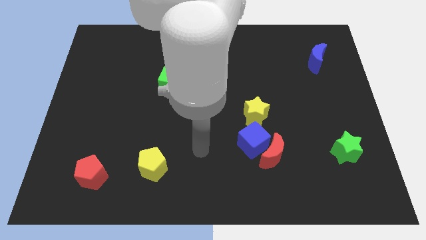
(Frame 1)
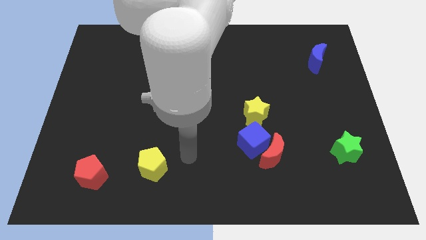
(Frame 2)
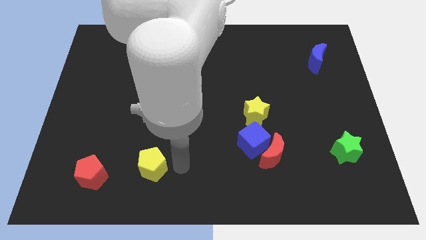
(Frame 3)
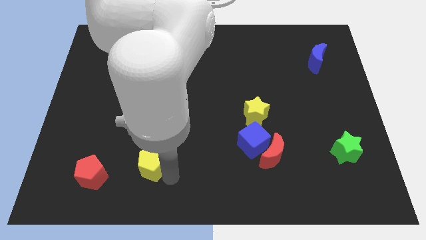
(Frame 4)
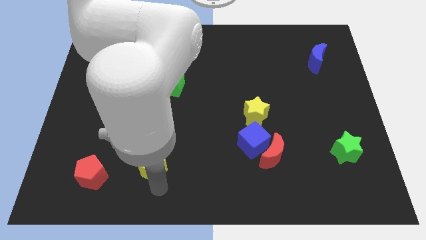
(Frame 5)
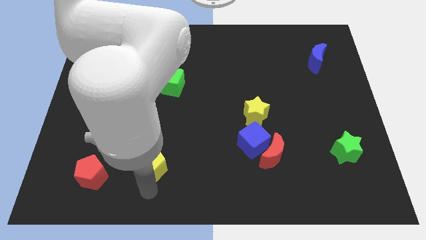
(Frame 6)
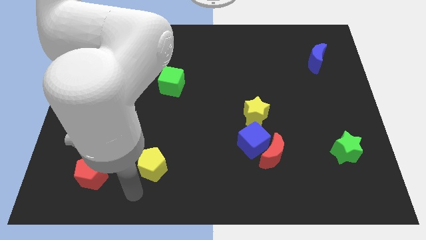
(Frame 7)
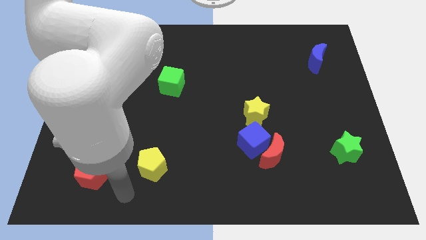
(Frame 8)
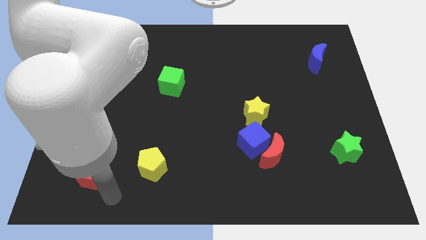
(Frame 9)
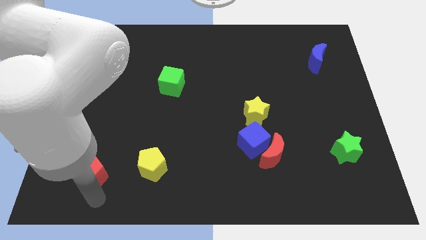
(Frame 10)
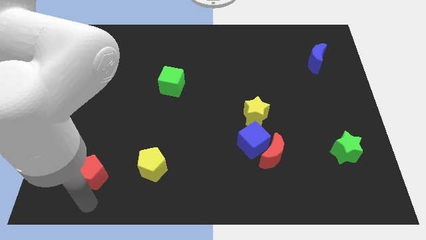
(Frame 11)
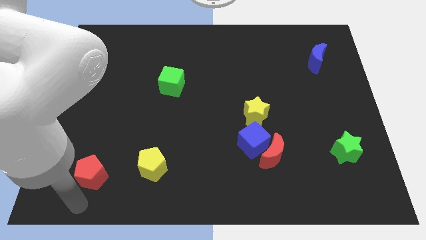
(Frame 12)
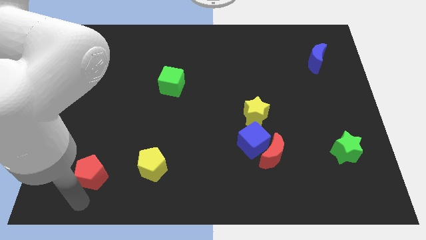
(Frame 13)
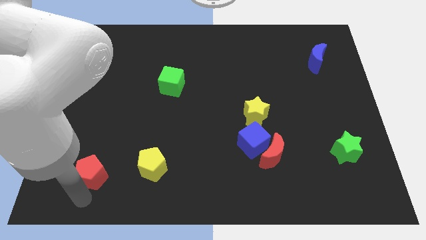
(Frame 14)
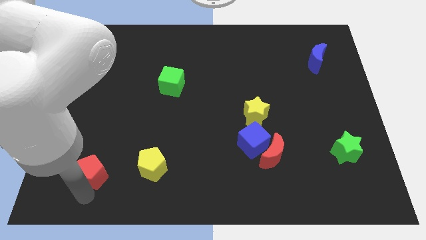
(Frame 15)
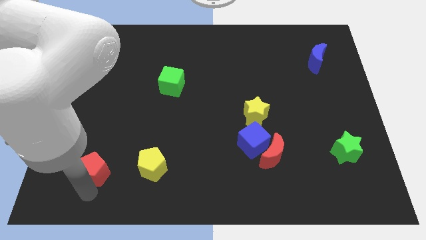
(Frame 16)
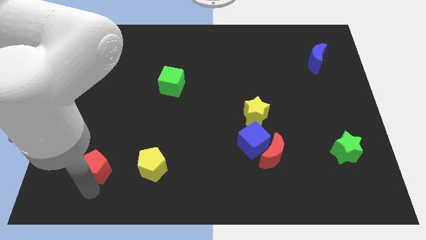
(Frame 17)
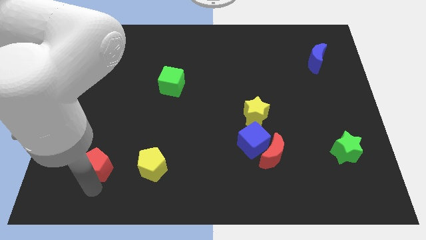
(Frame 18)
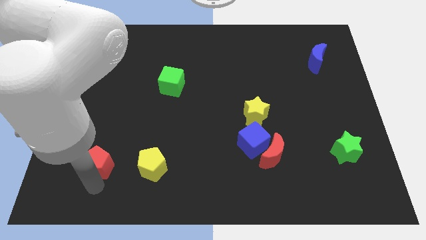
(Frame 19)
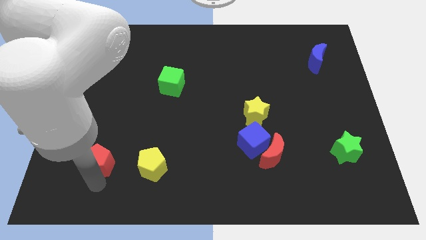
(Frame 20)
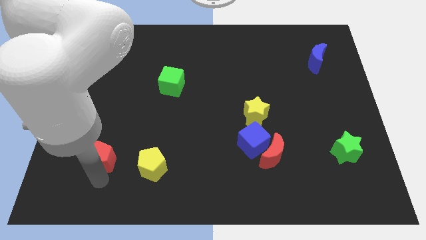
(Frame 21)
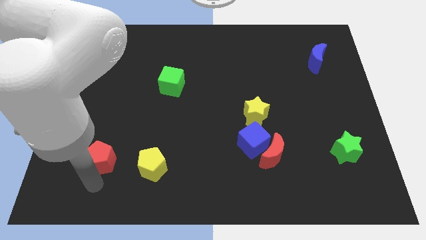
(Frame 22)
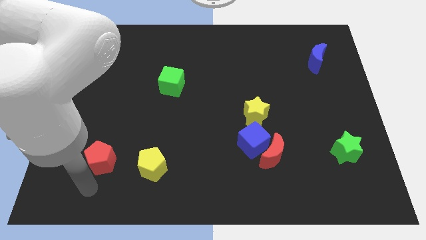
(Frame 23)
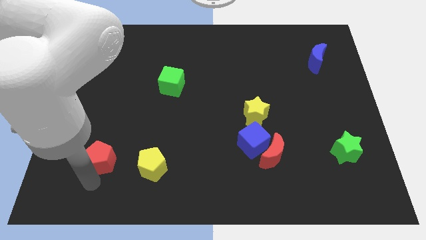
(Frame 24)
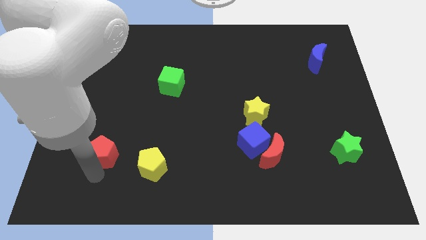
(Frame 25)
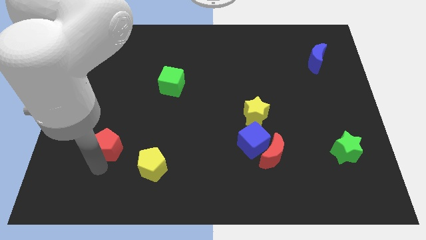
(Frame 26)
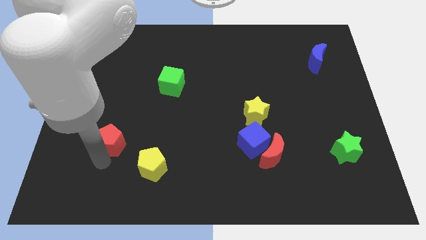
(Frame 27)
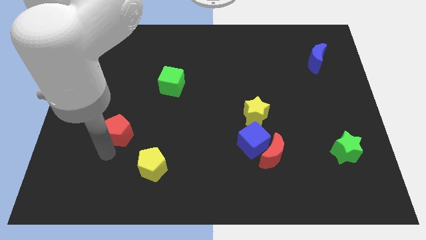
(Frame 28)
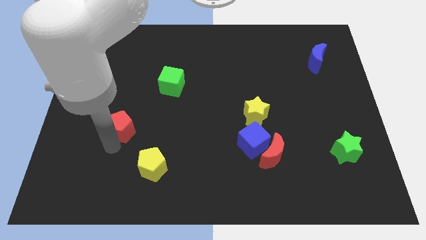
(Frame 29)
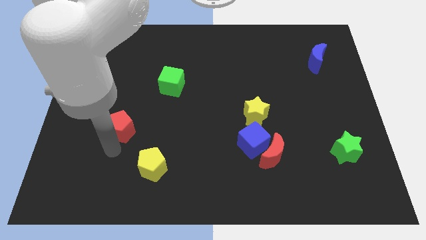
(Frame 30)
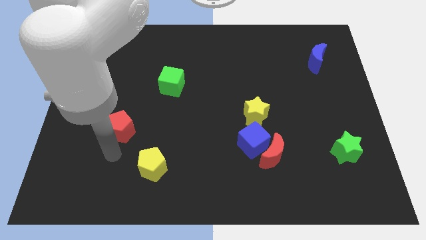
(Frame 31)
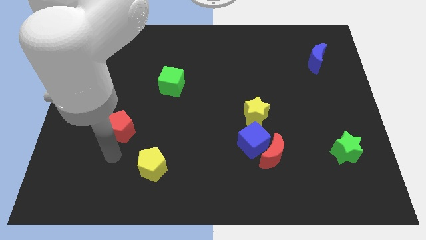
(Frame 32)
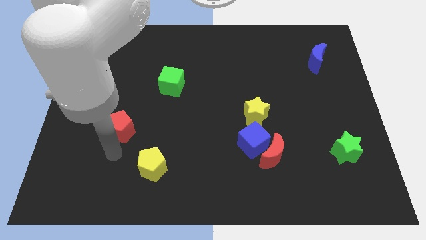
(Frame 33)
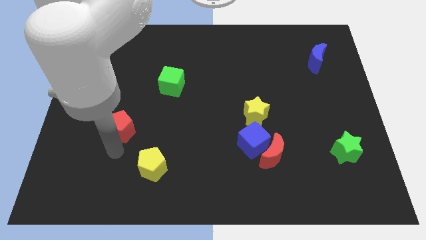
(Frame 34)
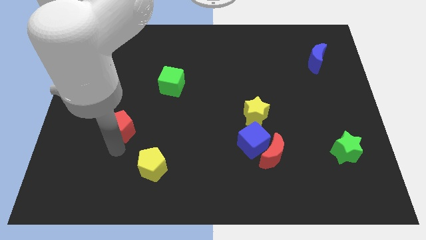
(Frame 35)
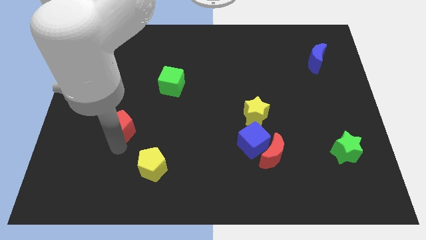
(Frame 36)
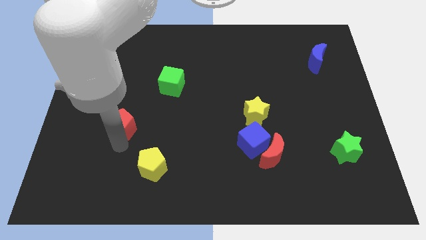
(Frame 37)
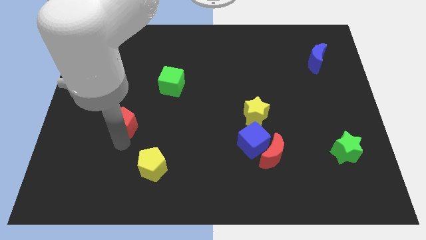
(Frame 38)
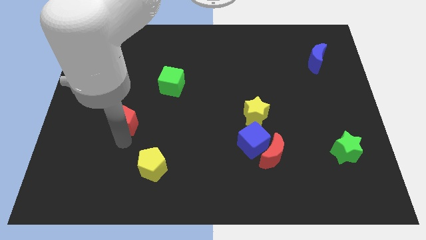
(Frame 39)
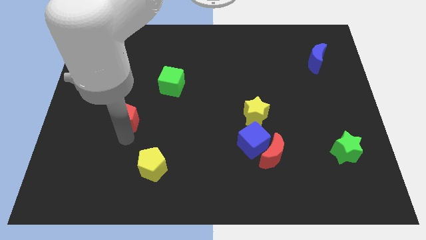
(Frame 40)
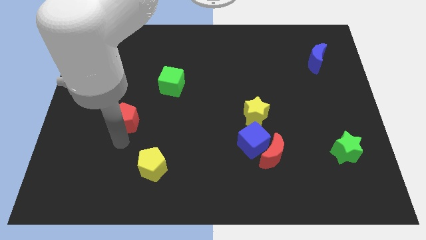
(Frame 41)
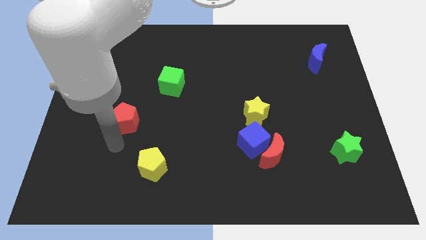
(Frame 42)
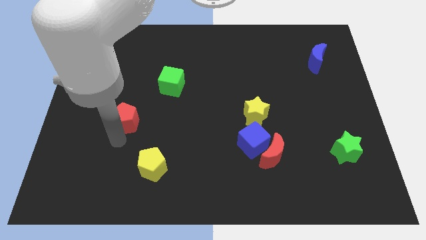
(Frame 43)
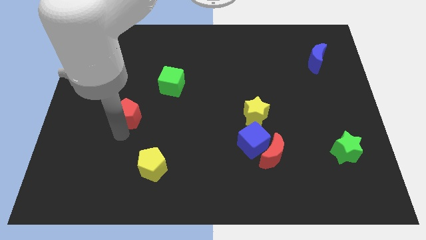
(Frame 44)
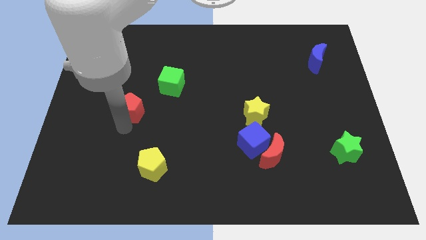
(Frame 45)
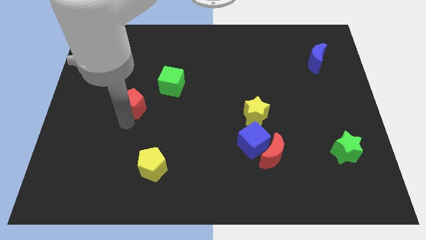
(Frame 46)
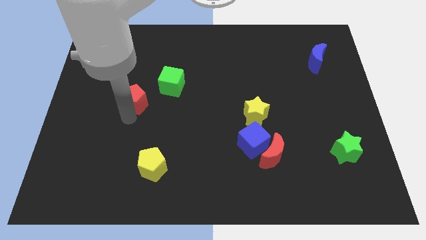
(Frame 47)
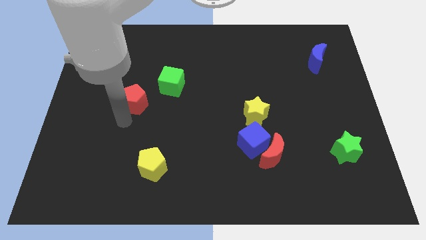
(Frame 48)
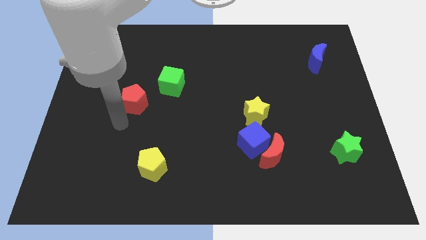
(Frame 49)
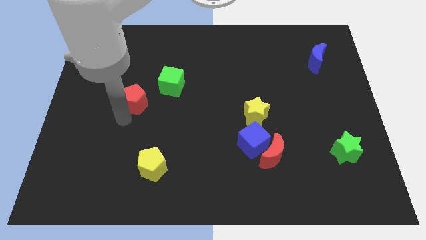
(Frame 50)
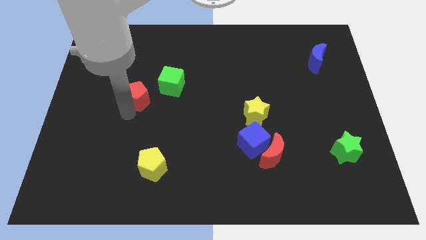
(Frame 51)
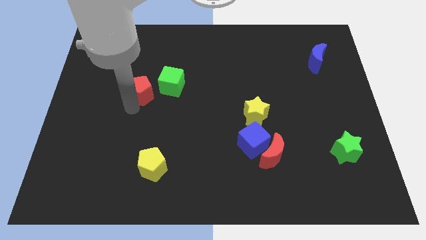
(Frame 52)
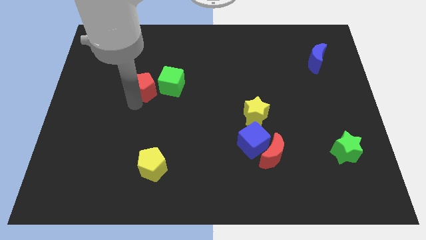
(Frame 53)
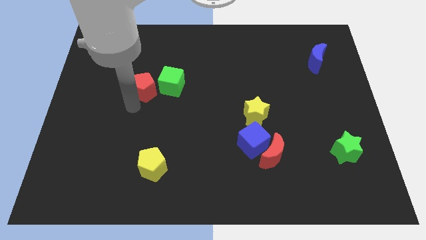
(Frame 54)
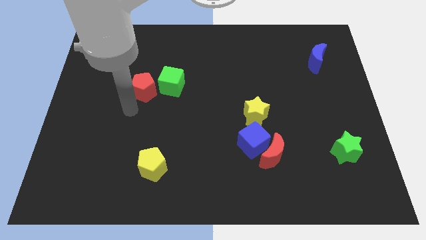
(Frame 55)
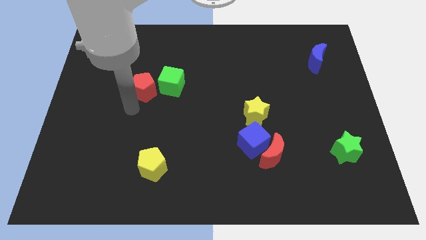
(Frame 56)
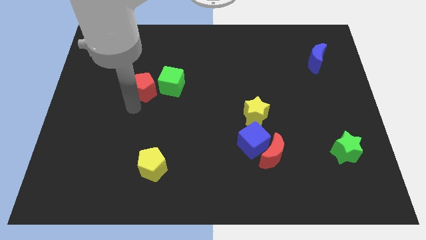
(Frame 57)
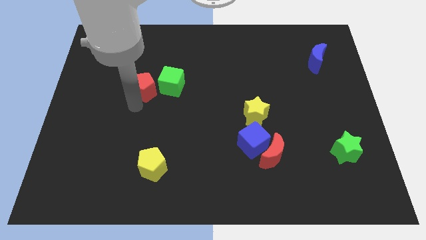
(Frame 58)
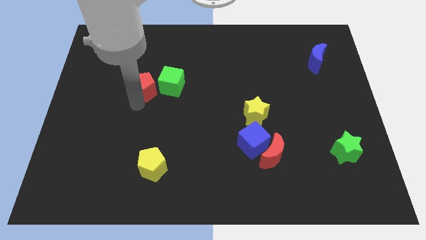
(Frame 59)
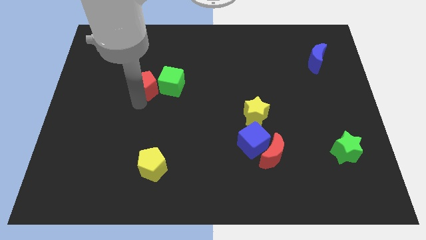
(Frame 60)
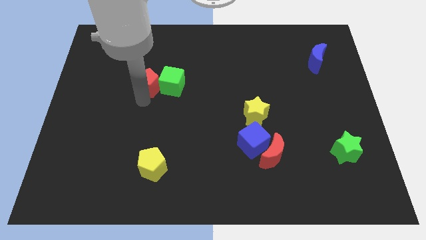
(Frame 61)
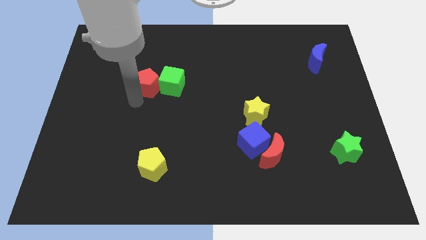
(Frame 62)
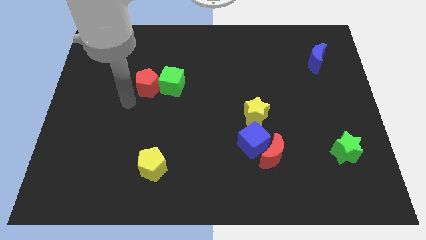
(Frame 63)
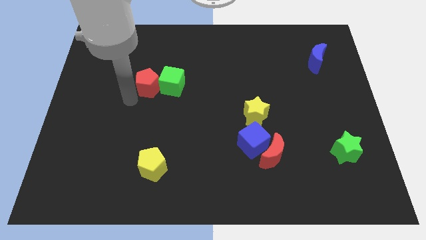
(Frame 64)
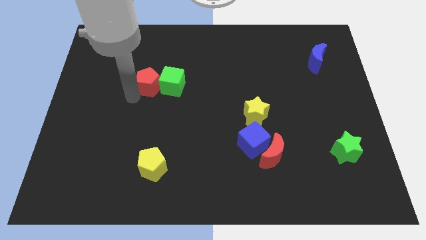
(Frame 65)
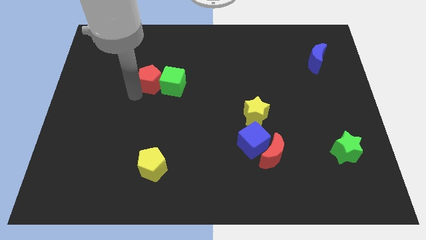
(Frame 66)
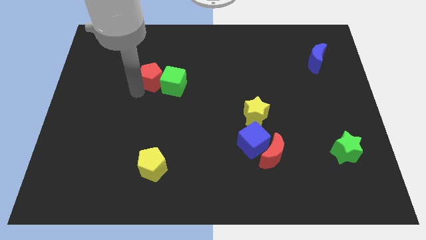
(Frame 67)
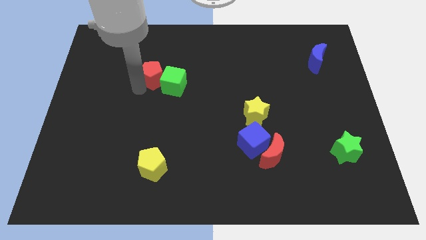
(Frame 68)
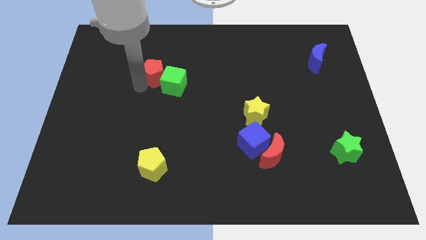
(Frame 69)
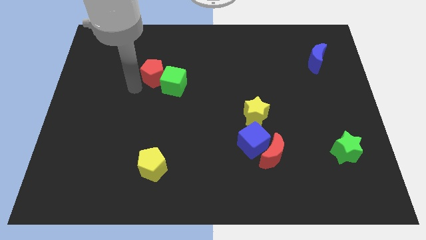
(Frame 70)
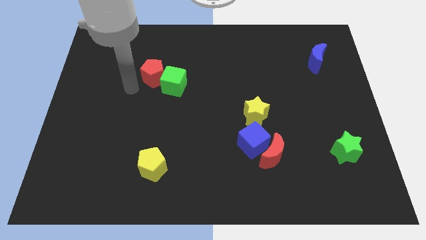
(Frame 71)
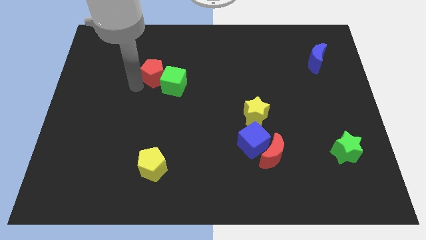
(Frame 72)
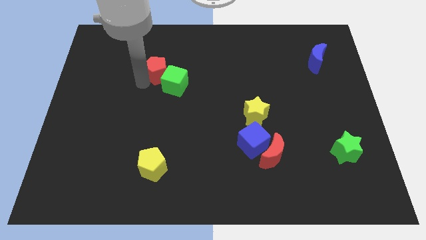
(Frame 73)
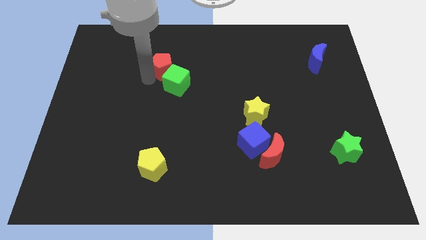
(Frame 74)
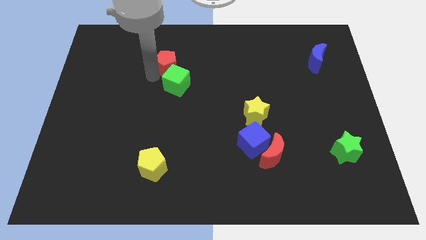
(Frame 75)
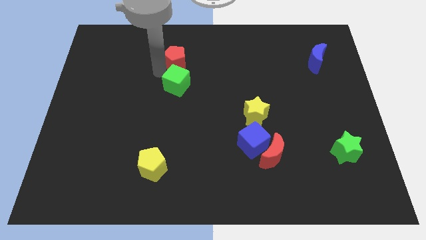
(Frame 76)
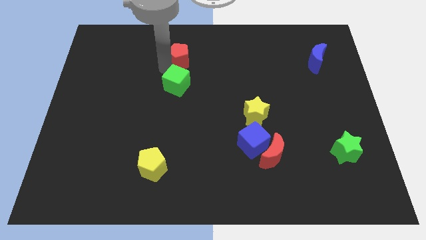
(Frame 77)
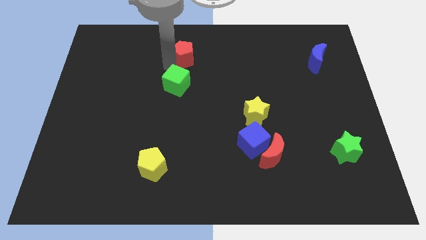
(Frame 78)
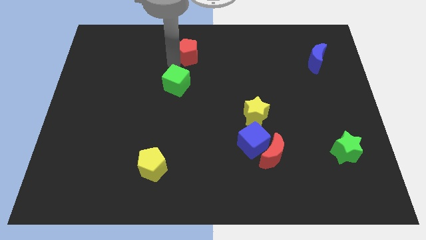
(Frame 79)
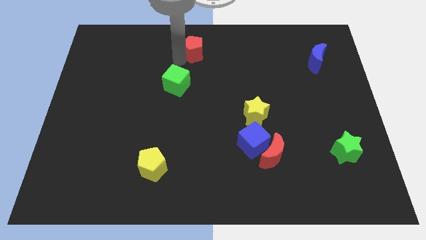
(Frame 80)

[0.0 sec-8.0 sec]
put the red pentagon to the top side
